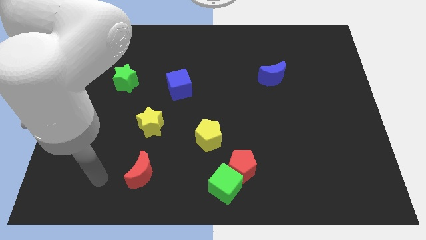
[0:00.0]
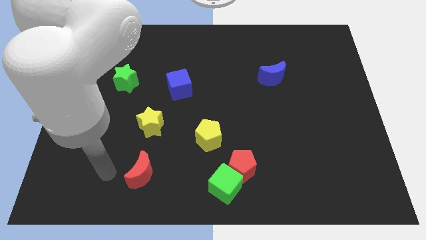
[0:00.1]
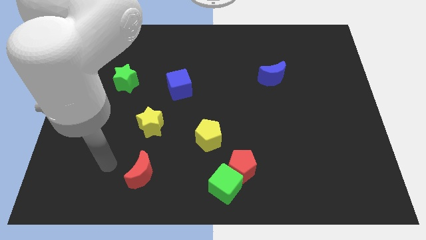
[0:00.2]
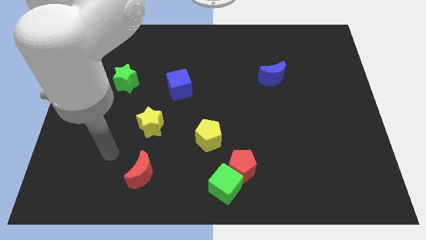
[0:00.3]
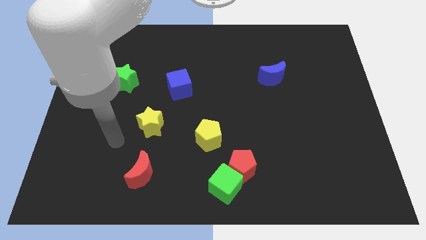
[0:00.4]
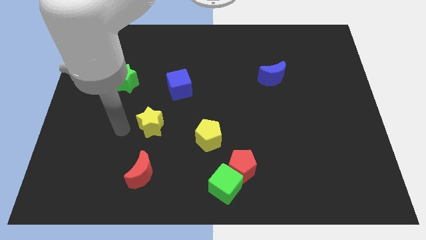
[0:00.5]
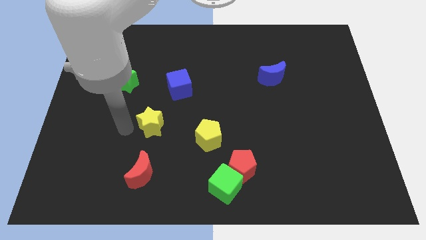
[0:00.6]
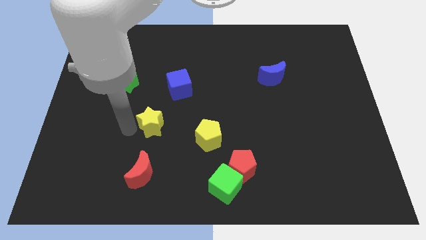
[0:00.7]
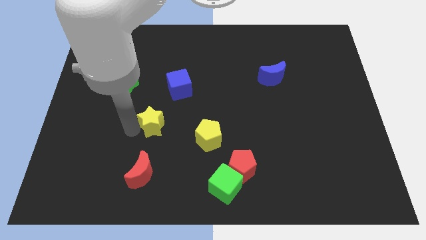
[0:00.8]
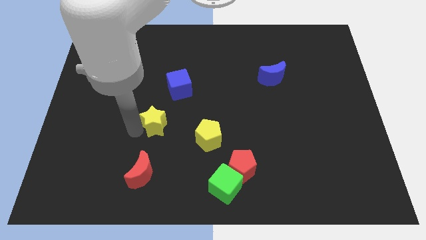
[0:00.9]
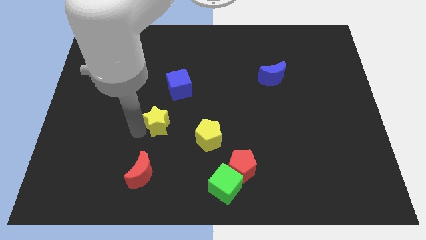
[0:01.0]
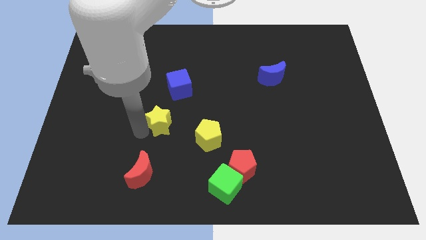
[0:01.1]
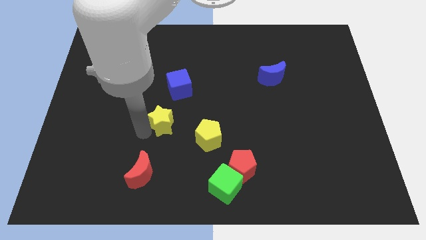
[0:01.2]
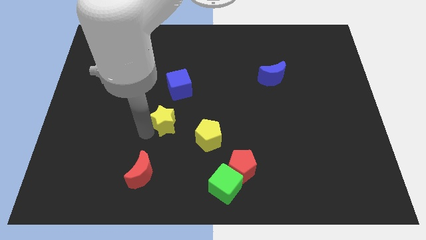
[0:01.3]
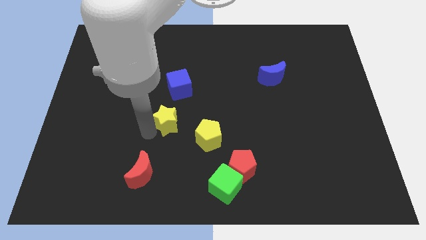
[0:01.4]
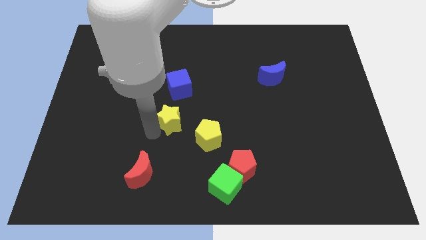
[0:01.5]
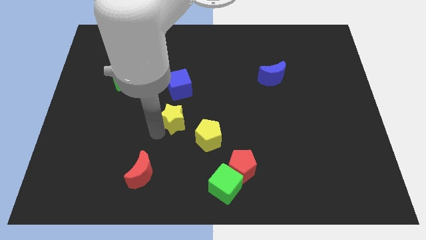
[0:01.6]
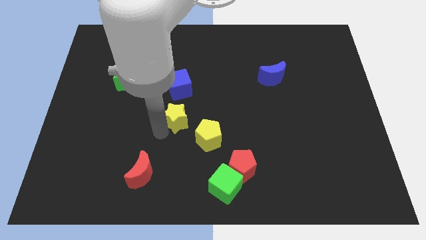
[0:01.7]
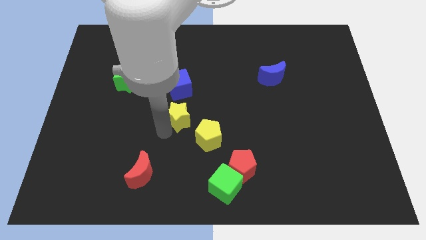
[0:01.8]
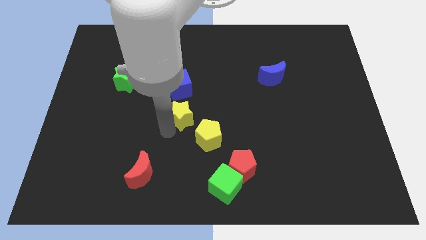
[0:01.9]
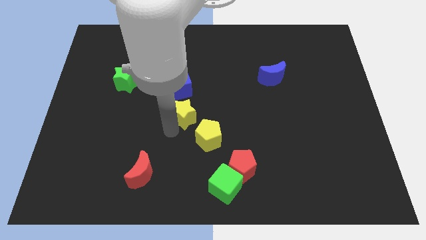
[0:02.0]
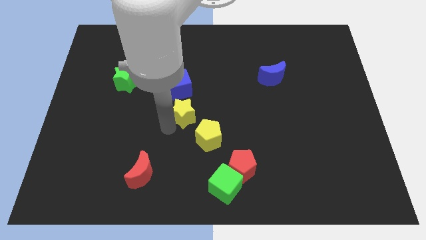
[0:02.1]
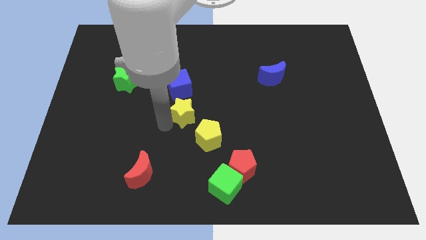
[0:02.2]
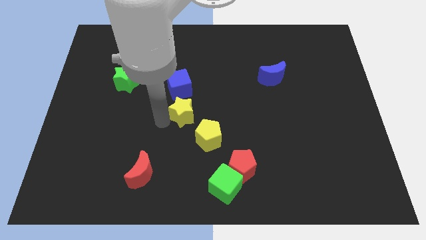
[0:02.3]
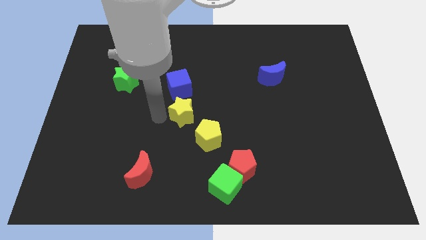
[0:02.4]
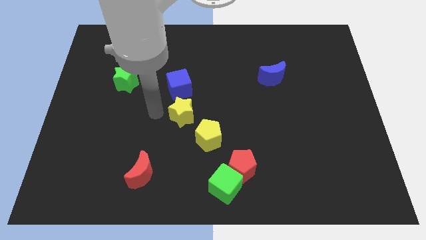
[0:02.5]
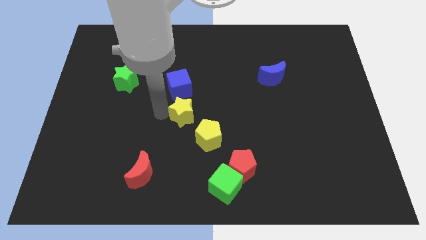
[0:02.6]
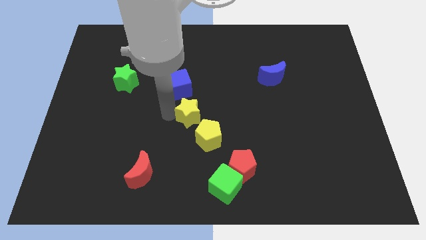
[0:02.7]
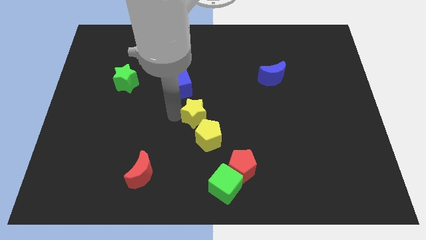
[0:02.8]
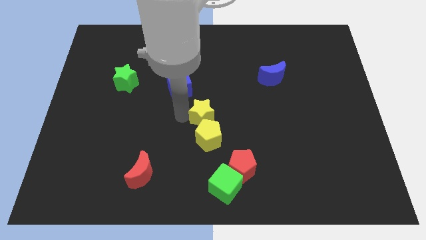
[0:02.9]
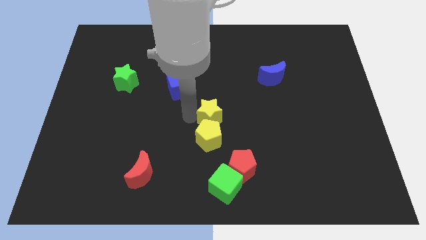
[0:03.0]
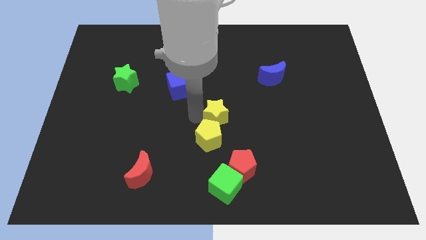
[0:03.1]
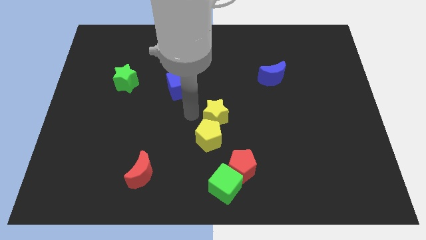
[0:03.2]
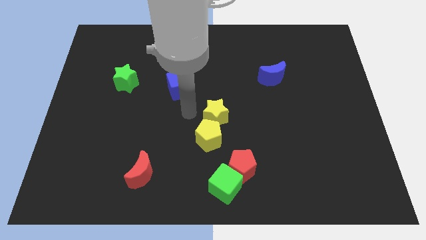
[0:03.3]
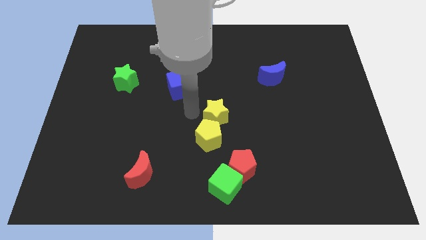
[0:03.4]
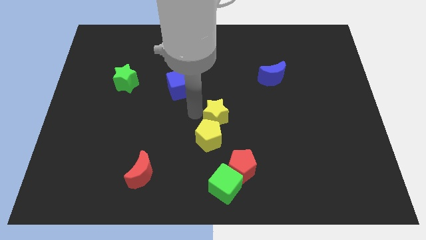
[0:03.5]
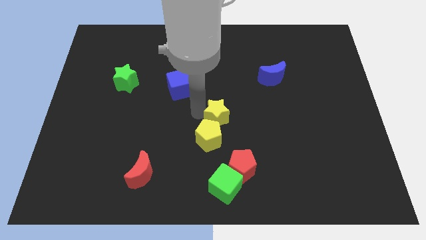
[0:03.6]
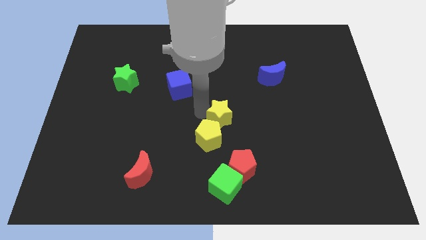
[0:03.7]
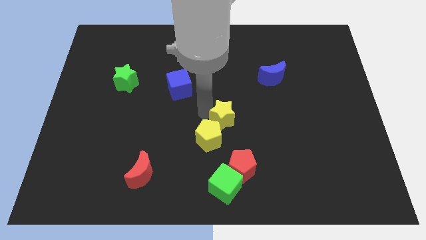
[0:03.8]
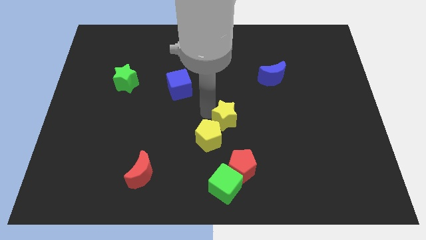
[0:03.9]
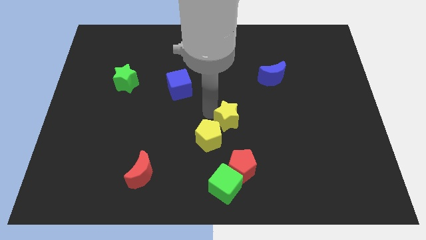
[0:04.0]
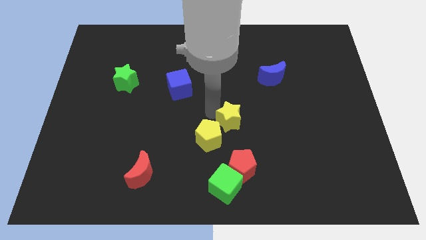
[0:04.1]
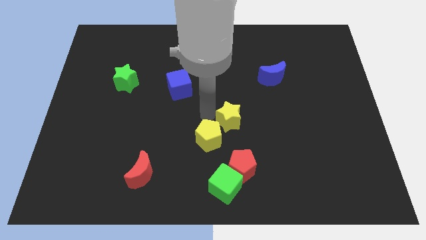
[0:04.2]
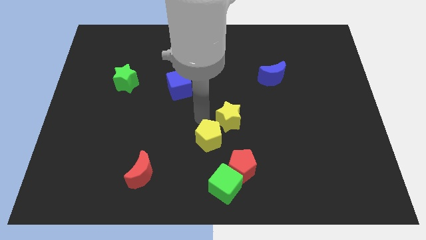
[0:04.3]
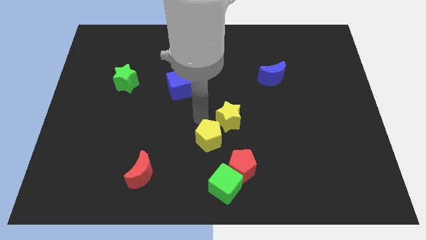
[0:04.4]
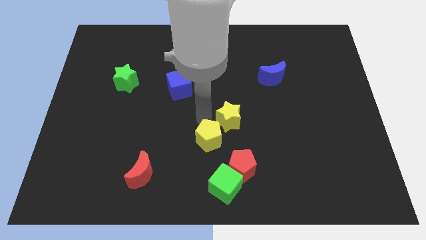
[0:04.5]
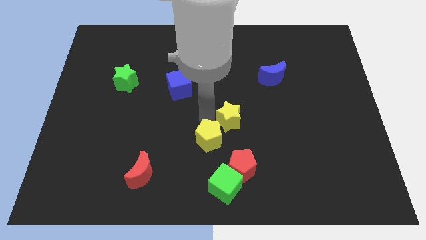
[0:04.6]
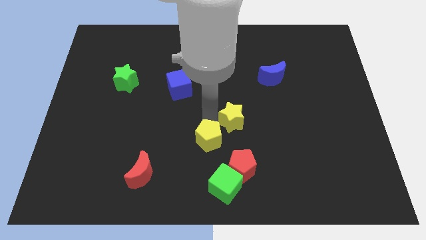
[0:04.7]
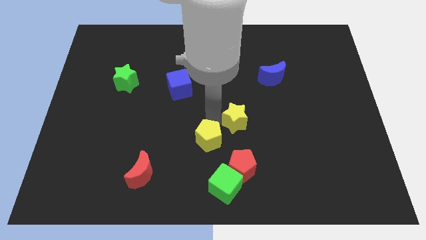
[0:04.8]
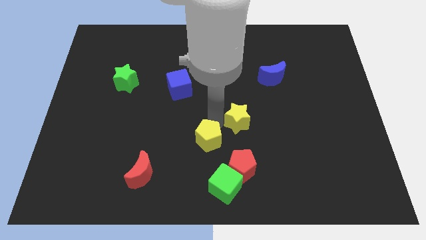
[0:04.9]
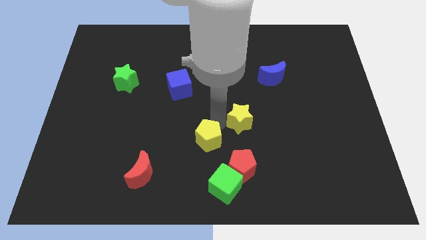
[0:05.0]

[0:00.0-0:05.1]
push the yellow star right

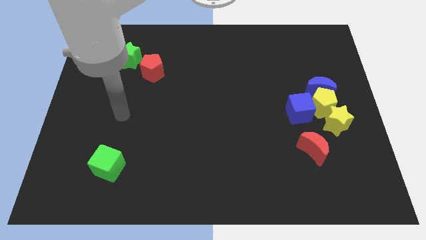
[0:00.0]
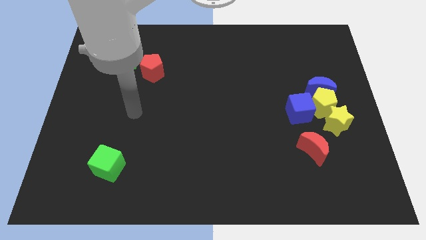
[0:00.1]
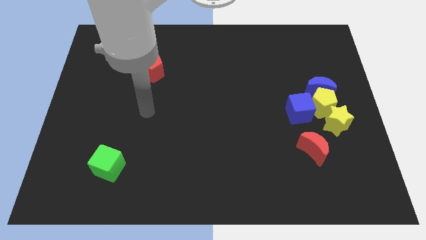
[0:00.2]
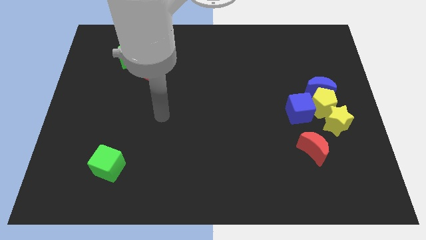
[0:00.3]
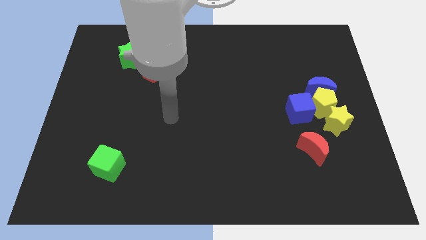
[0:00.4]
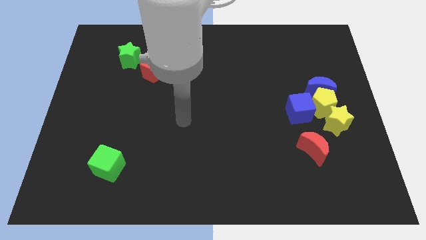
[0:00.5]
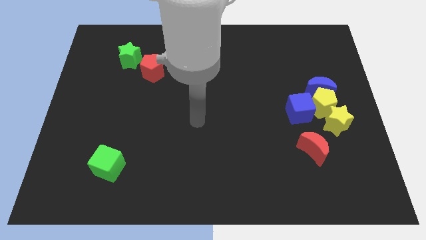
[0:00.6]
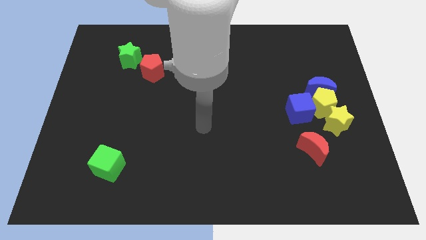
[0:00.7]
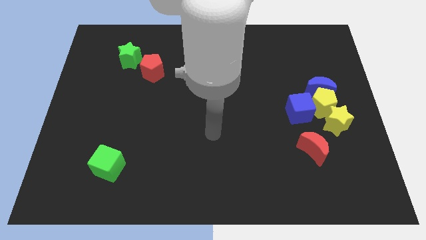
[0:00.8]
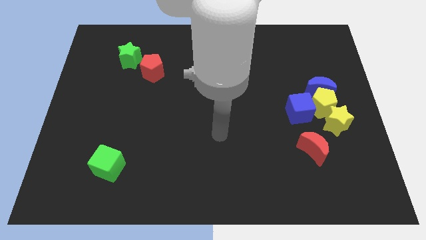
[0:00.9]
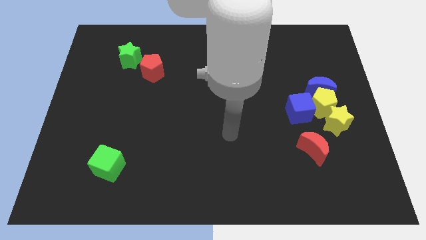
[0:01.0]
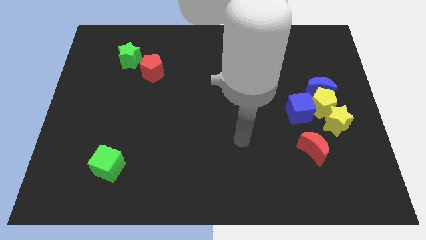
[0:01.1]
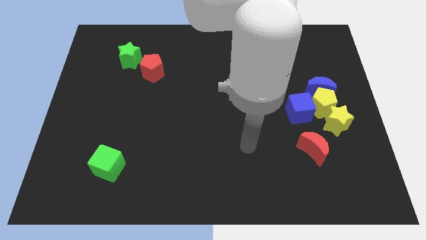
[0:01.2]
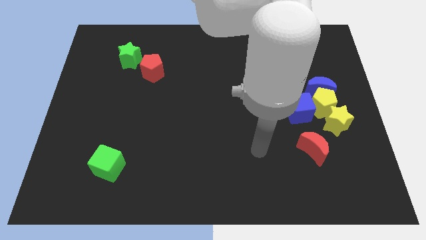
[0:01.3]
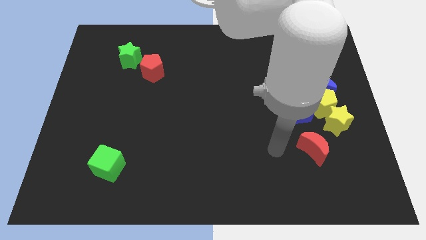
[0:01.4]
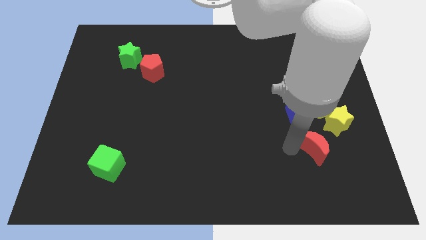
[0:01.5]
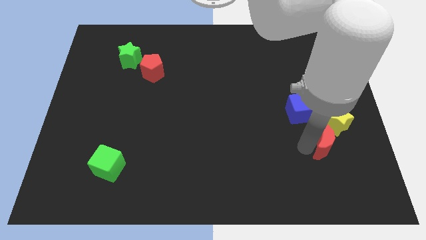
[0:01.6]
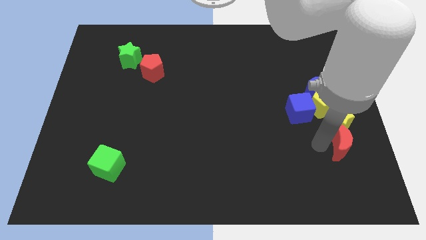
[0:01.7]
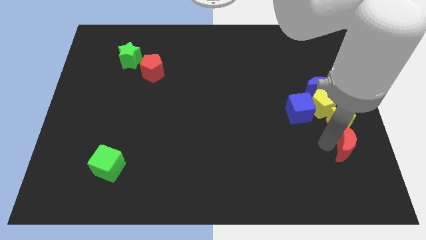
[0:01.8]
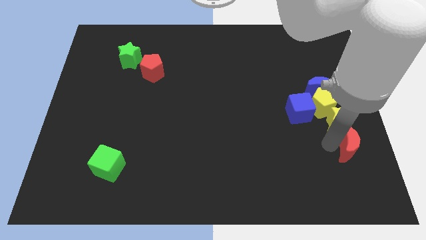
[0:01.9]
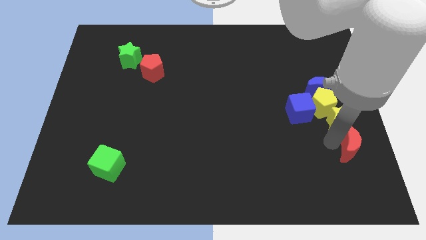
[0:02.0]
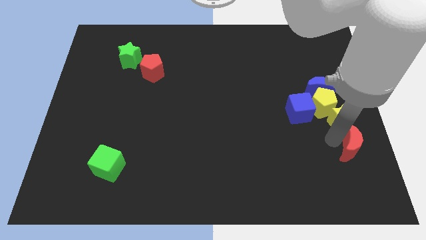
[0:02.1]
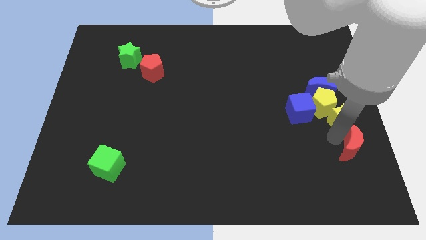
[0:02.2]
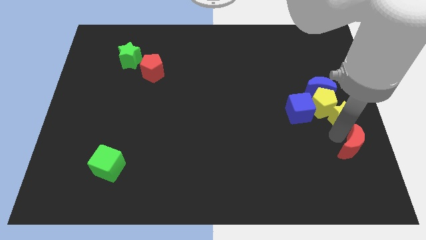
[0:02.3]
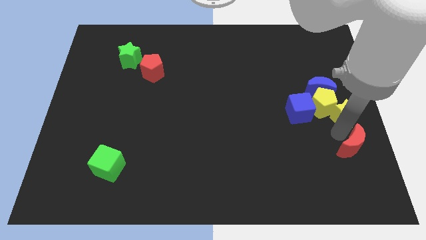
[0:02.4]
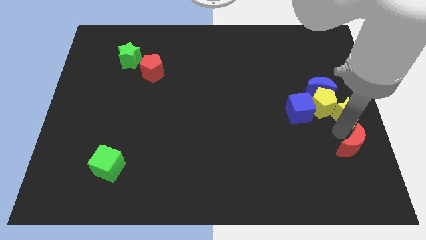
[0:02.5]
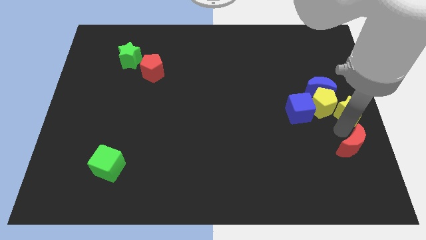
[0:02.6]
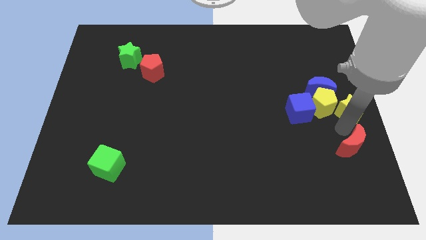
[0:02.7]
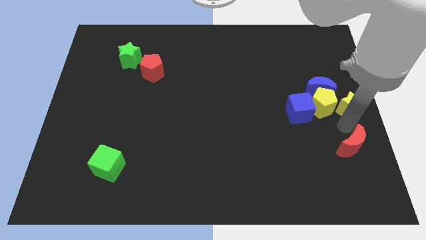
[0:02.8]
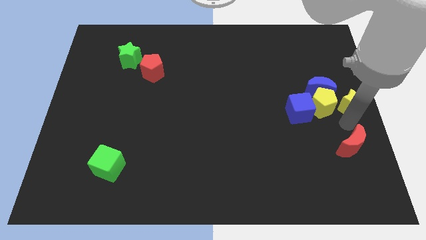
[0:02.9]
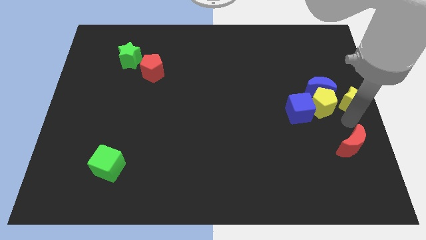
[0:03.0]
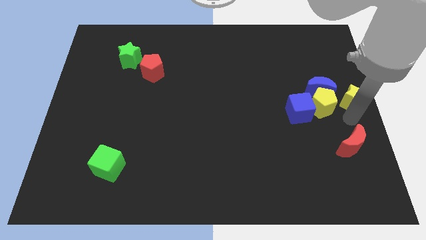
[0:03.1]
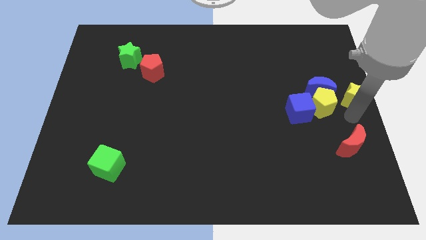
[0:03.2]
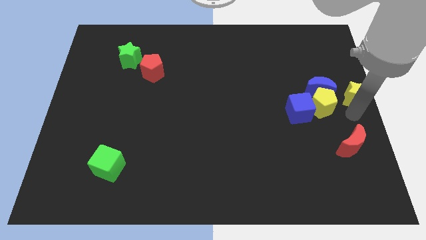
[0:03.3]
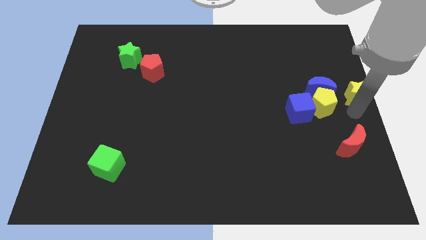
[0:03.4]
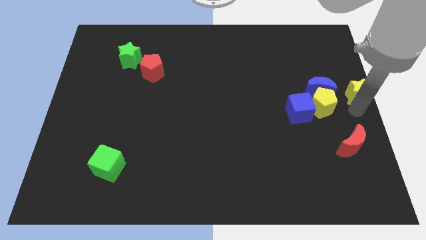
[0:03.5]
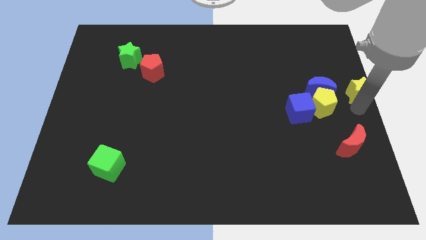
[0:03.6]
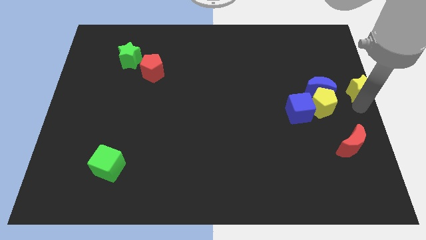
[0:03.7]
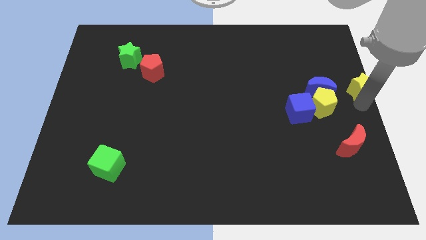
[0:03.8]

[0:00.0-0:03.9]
push the yellow star up a bit
